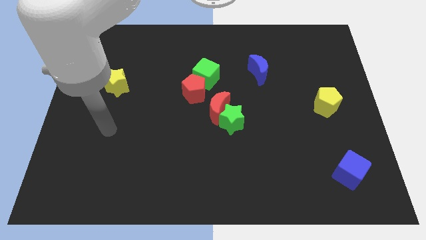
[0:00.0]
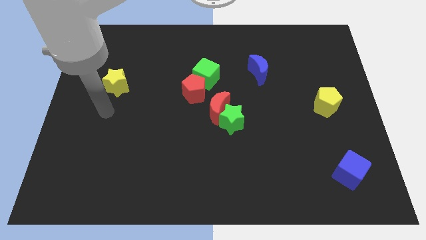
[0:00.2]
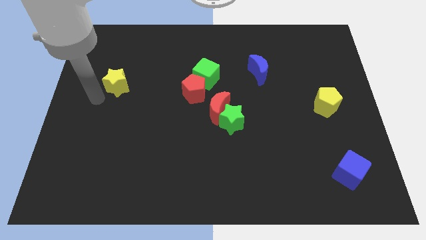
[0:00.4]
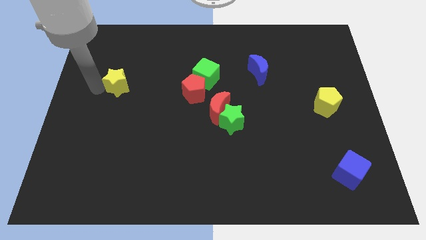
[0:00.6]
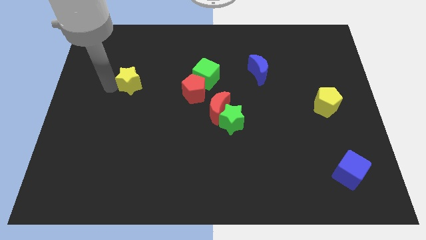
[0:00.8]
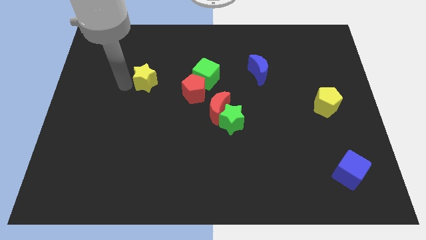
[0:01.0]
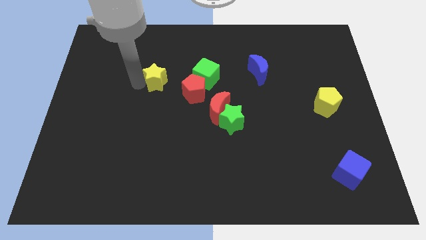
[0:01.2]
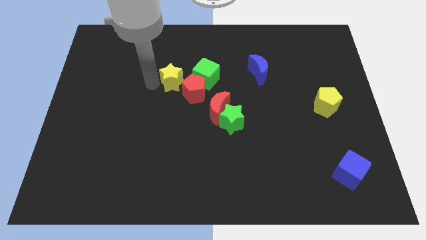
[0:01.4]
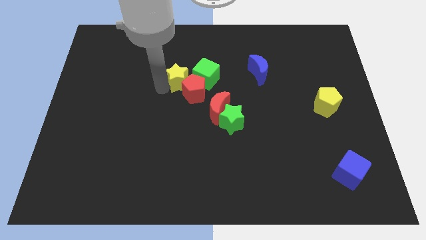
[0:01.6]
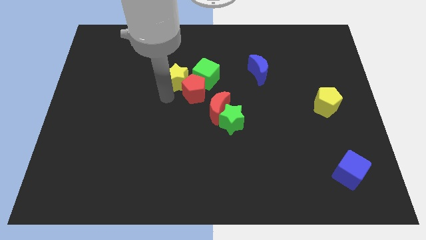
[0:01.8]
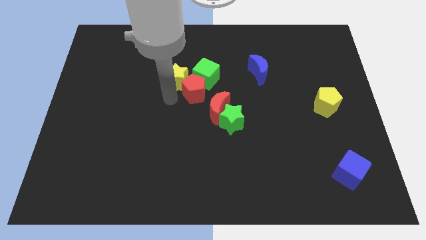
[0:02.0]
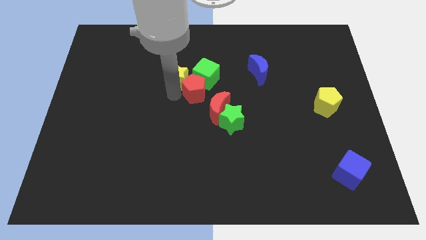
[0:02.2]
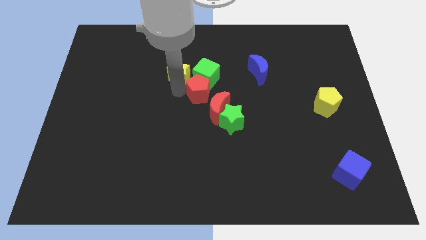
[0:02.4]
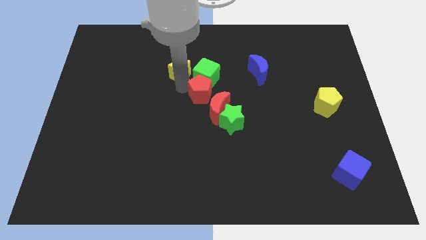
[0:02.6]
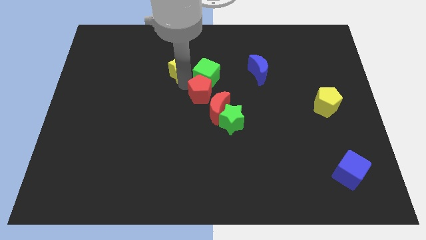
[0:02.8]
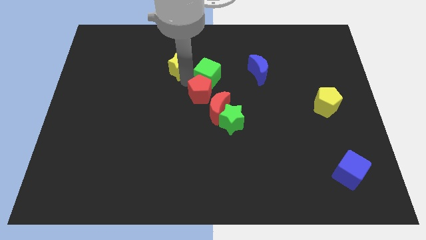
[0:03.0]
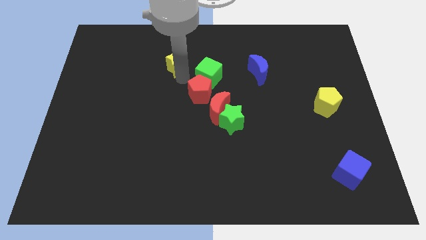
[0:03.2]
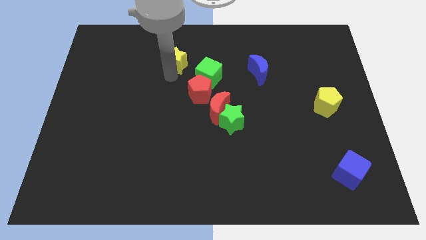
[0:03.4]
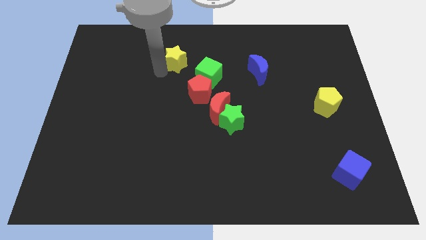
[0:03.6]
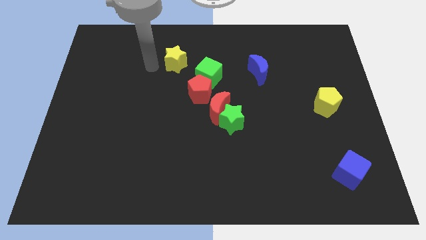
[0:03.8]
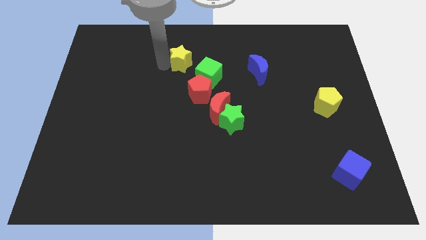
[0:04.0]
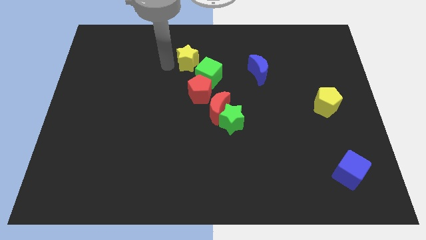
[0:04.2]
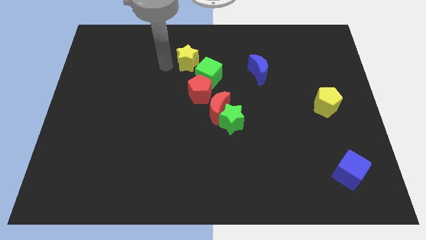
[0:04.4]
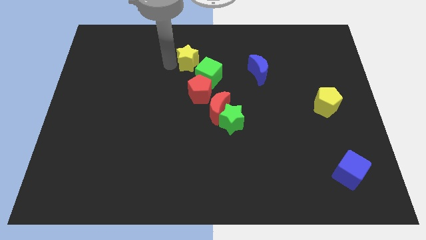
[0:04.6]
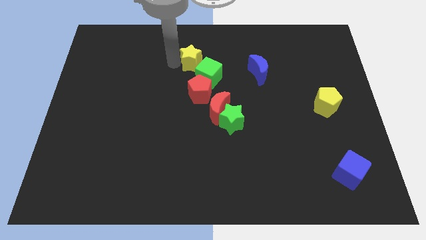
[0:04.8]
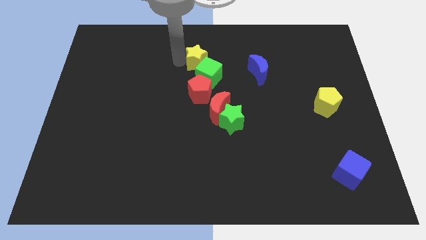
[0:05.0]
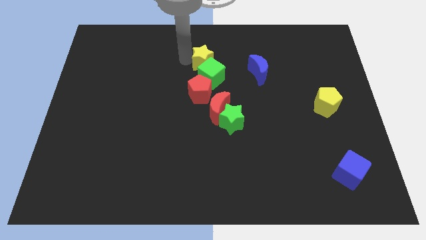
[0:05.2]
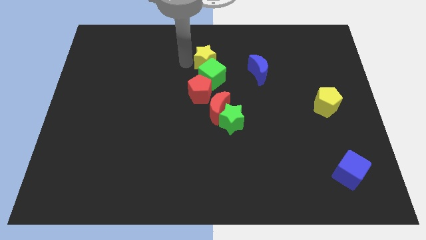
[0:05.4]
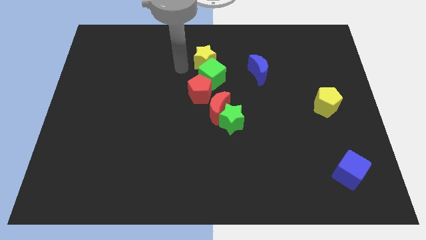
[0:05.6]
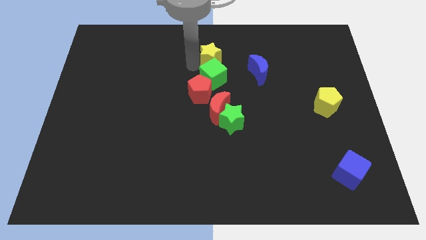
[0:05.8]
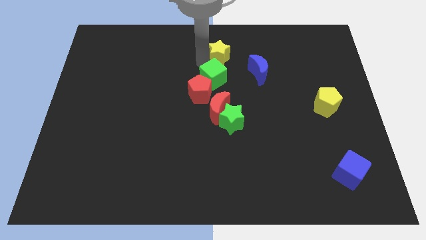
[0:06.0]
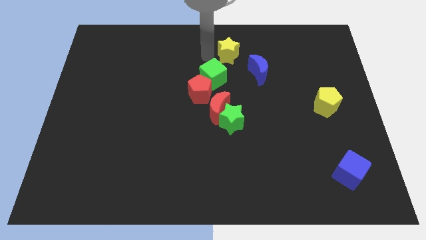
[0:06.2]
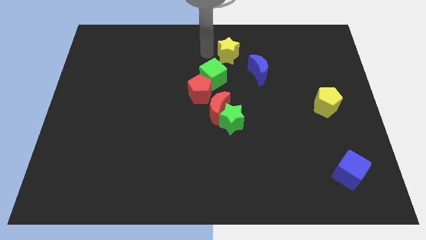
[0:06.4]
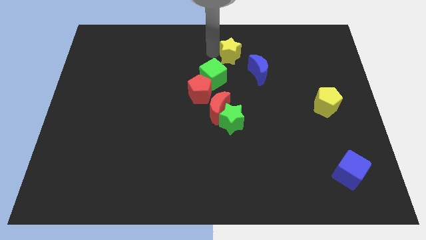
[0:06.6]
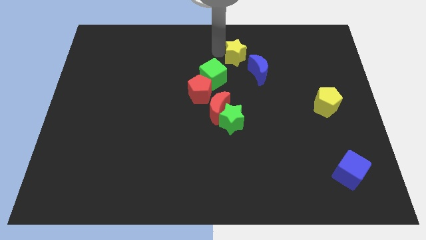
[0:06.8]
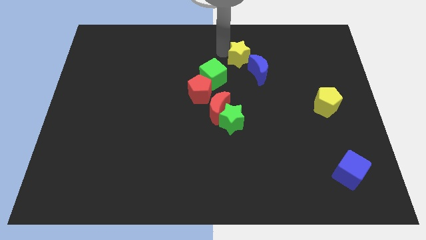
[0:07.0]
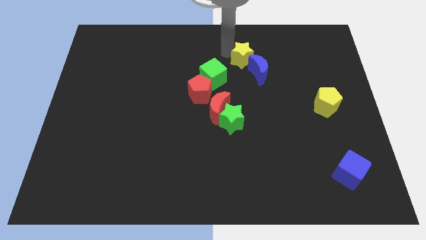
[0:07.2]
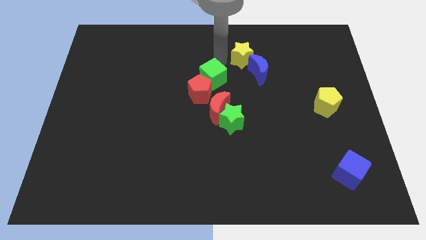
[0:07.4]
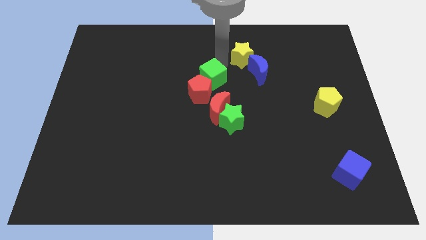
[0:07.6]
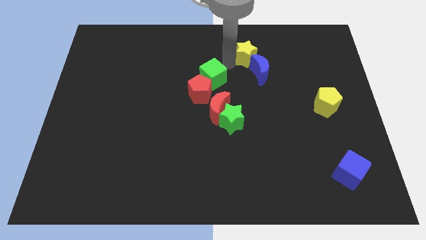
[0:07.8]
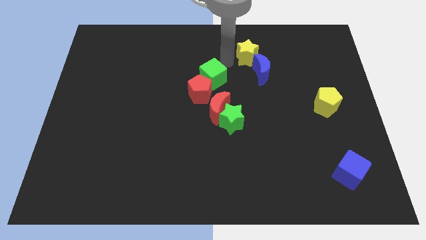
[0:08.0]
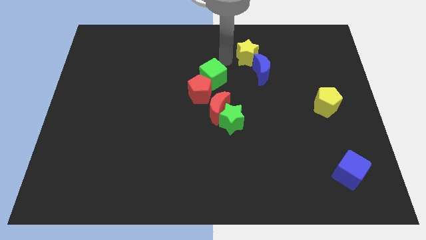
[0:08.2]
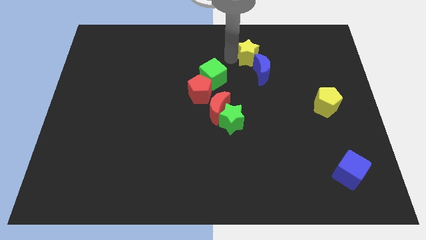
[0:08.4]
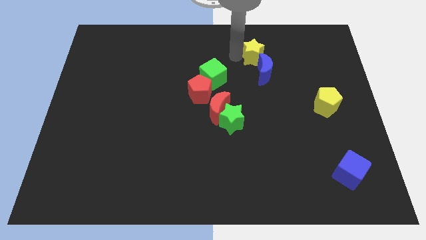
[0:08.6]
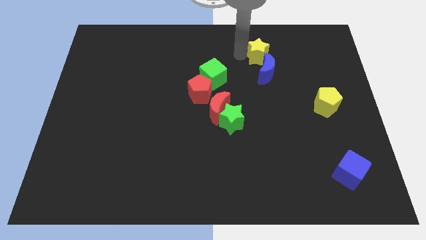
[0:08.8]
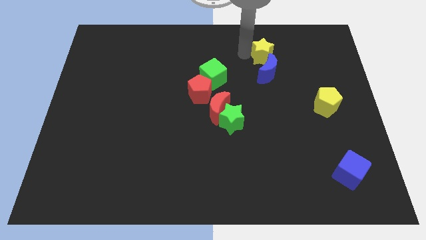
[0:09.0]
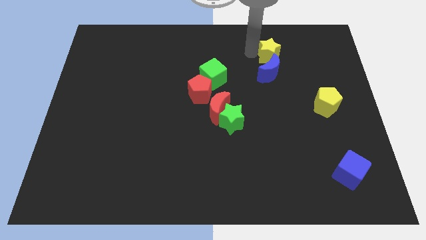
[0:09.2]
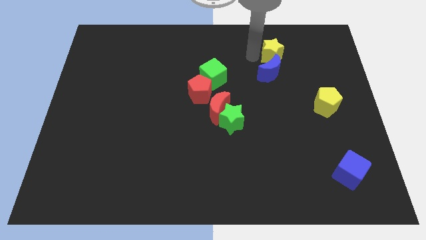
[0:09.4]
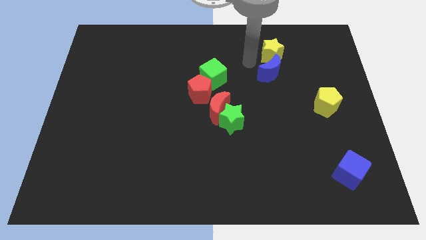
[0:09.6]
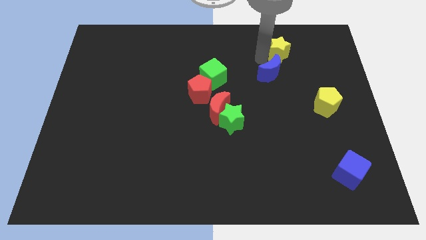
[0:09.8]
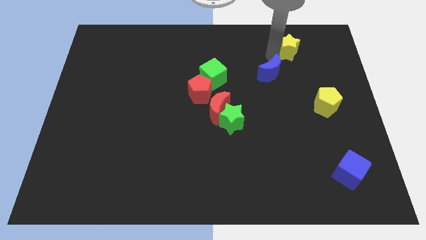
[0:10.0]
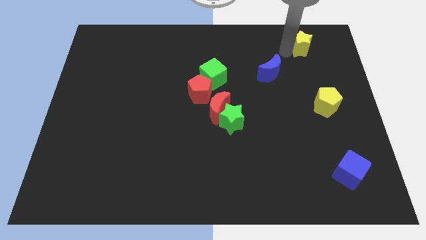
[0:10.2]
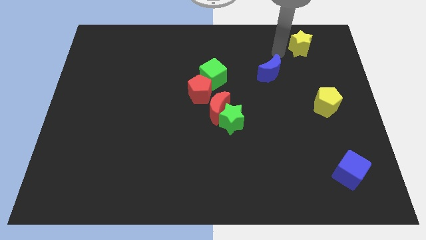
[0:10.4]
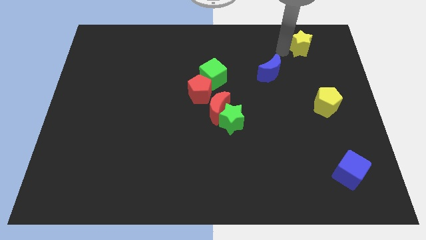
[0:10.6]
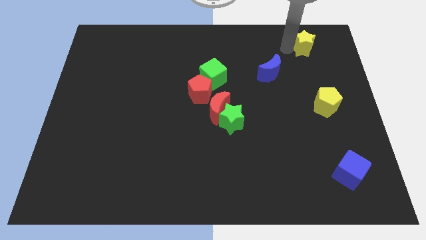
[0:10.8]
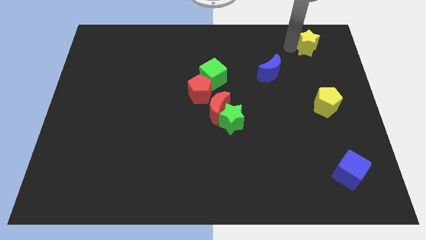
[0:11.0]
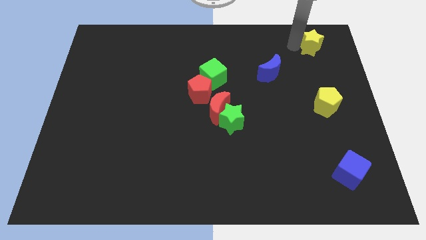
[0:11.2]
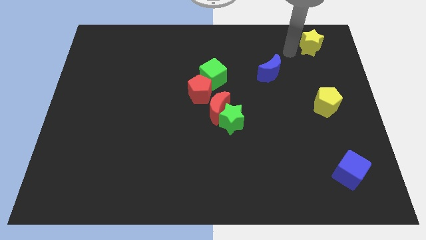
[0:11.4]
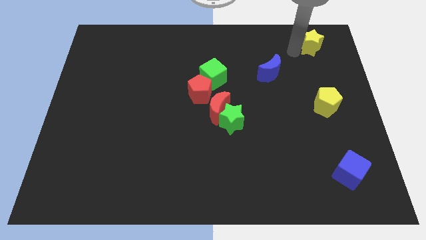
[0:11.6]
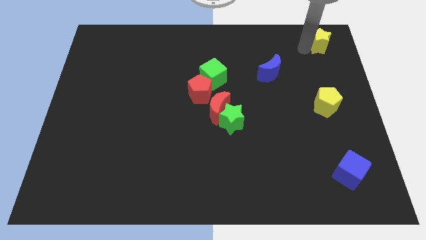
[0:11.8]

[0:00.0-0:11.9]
slide the yellow star to the upper right corner
